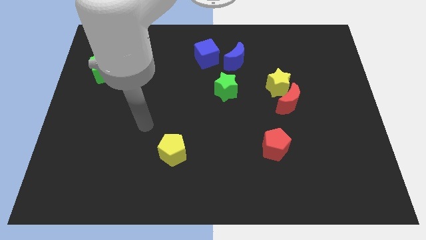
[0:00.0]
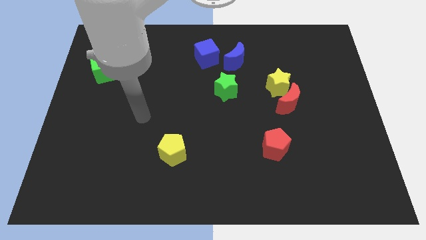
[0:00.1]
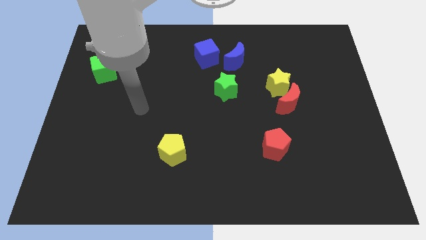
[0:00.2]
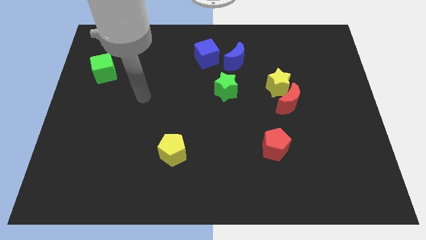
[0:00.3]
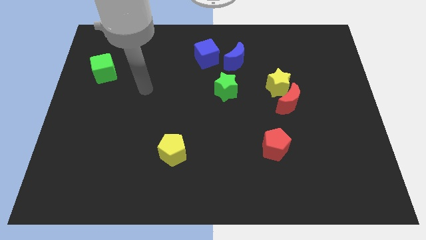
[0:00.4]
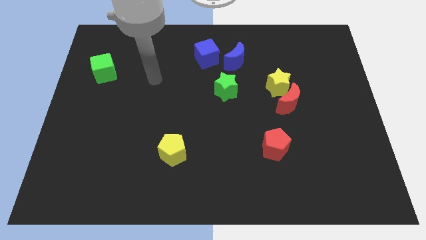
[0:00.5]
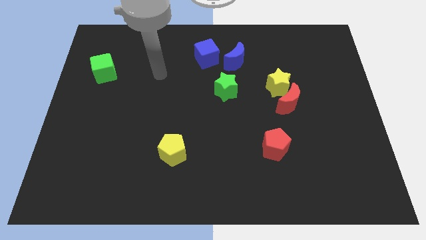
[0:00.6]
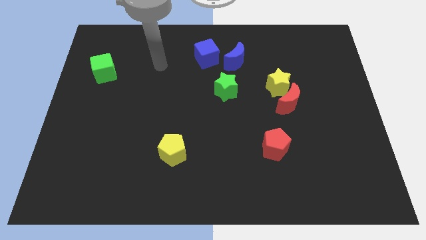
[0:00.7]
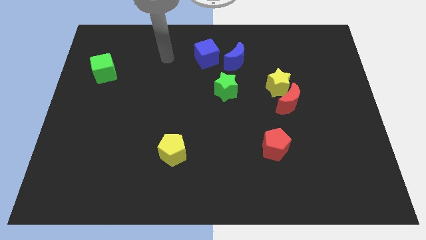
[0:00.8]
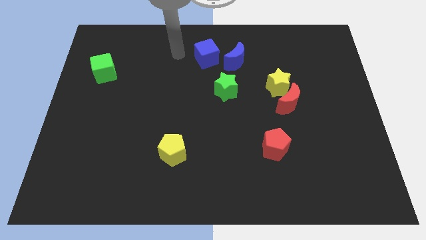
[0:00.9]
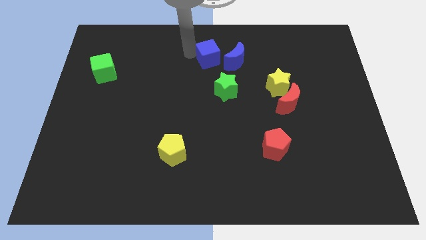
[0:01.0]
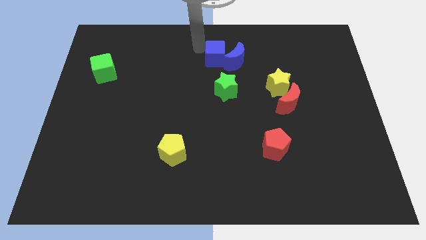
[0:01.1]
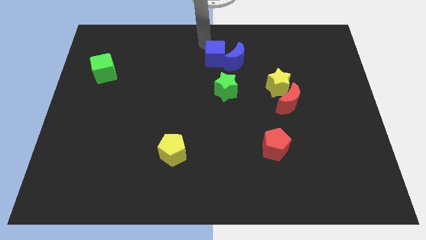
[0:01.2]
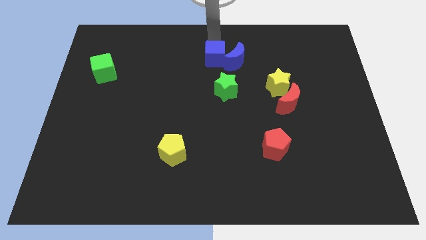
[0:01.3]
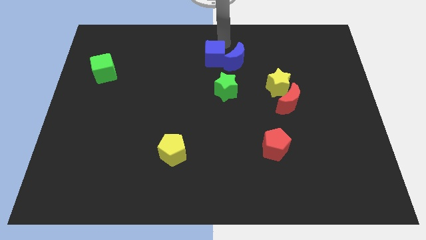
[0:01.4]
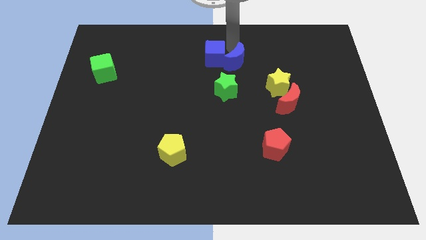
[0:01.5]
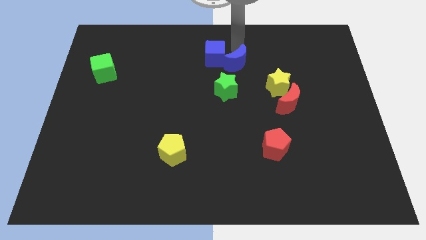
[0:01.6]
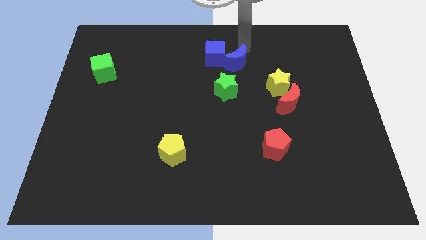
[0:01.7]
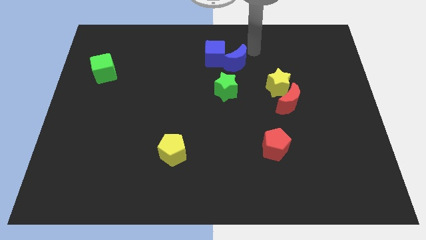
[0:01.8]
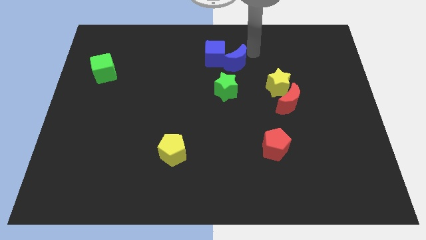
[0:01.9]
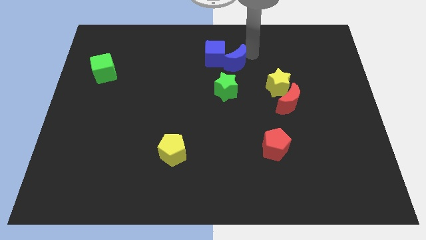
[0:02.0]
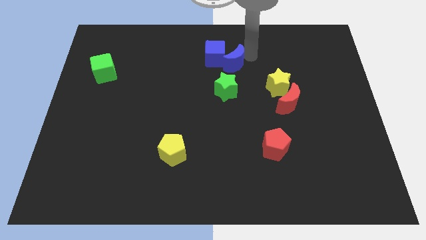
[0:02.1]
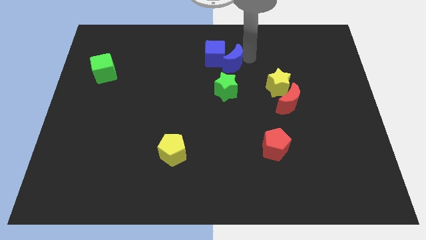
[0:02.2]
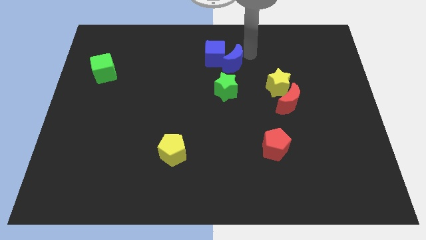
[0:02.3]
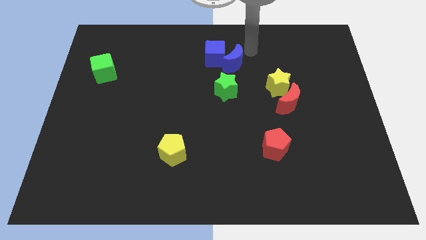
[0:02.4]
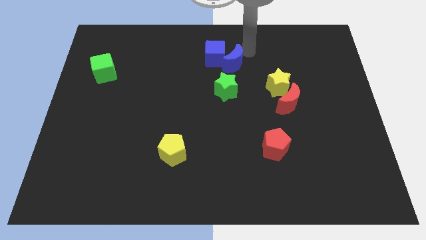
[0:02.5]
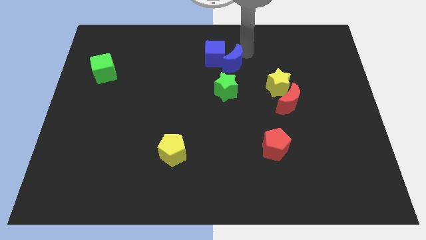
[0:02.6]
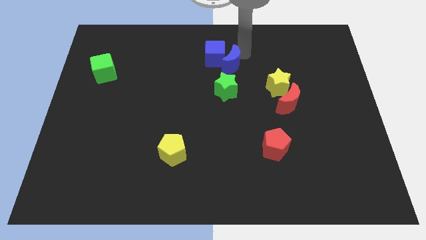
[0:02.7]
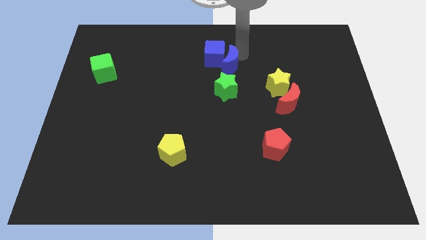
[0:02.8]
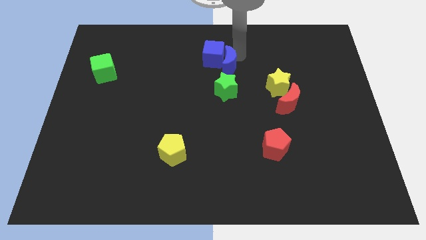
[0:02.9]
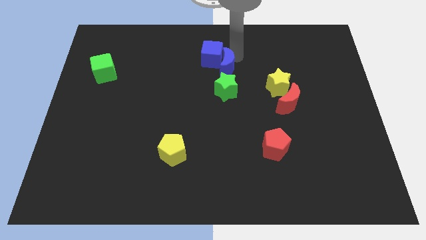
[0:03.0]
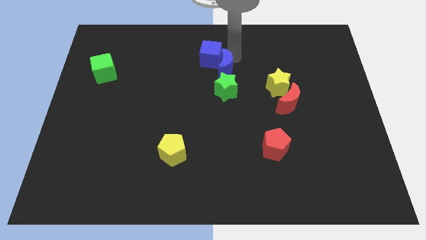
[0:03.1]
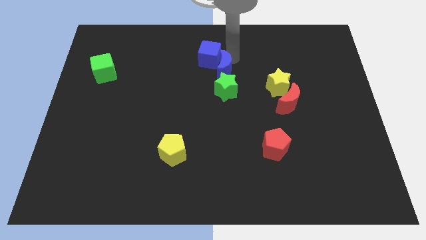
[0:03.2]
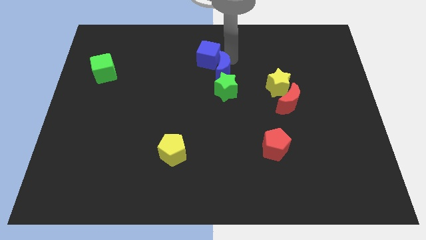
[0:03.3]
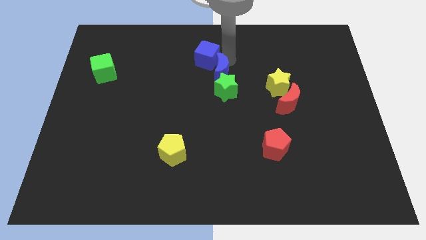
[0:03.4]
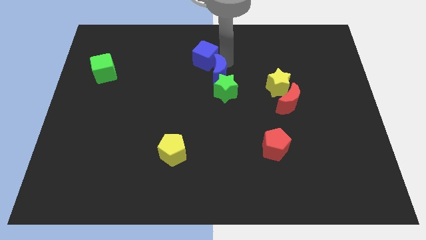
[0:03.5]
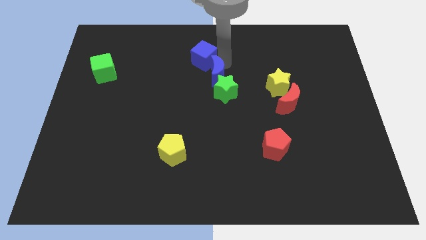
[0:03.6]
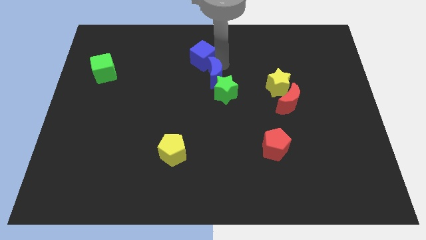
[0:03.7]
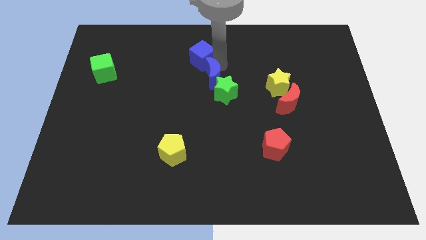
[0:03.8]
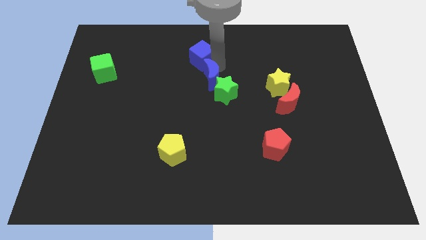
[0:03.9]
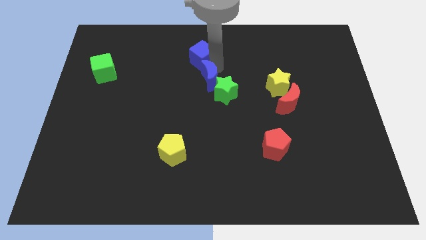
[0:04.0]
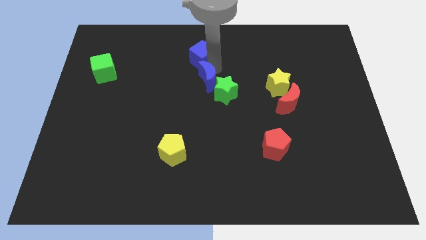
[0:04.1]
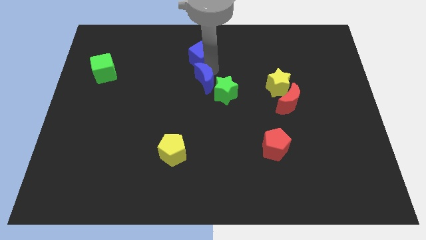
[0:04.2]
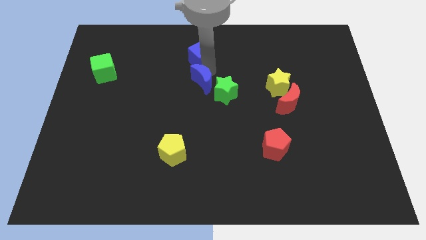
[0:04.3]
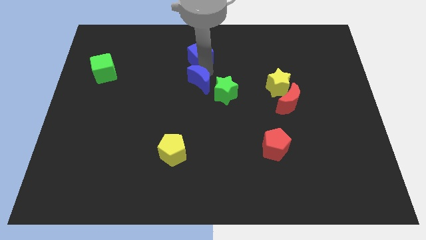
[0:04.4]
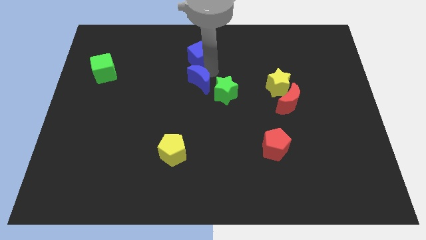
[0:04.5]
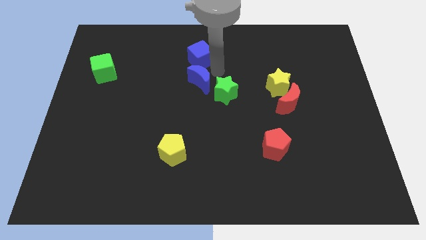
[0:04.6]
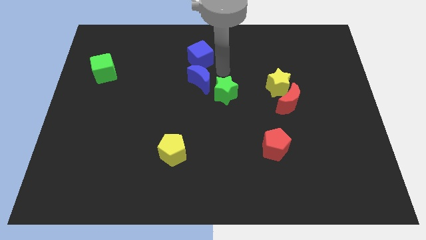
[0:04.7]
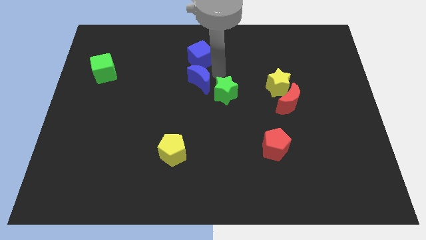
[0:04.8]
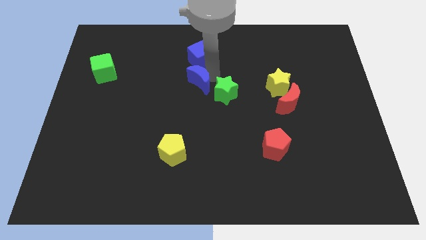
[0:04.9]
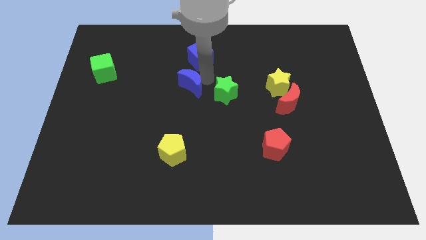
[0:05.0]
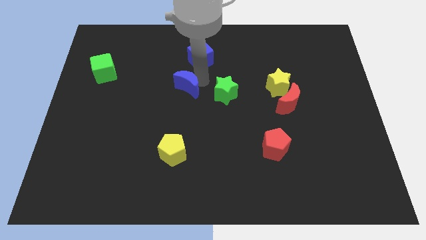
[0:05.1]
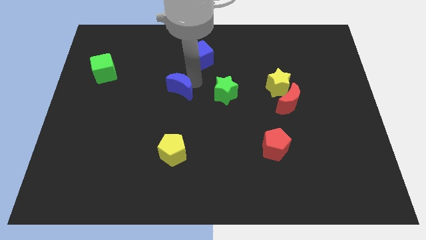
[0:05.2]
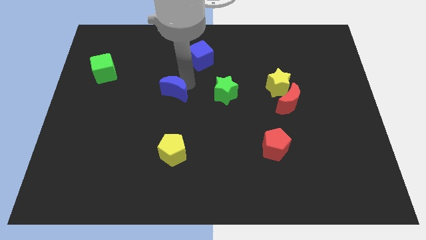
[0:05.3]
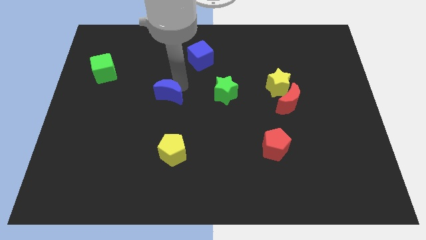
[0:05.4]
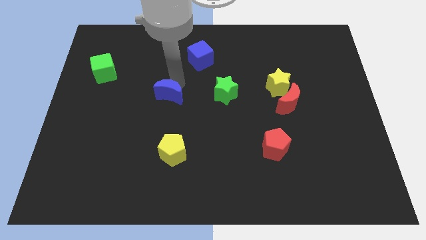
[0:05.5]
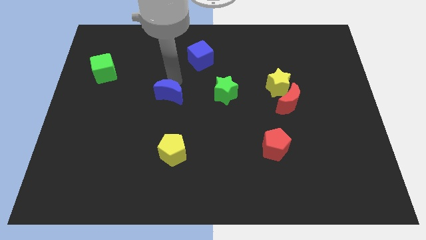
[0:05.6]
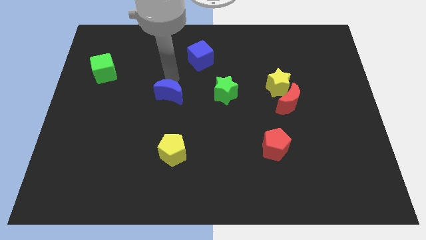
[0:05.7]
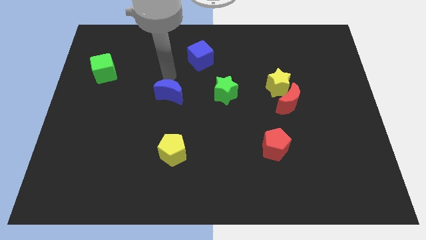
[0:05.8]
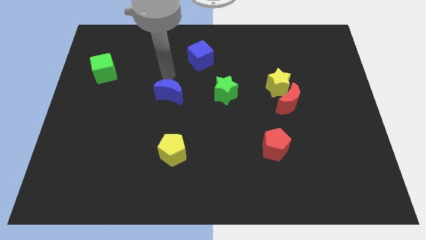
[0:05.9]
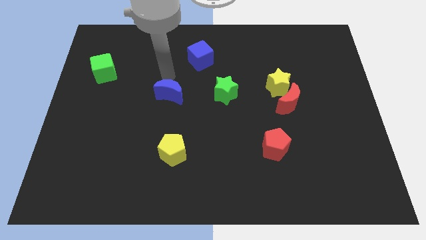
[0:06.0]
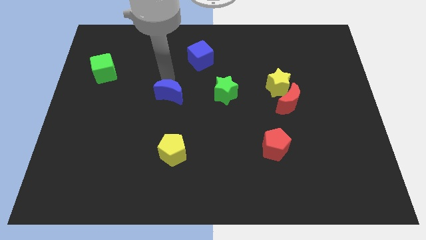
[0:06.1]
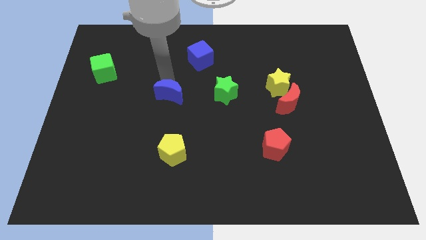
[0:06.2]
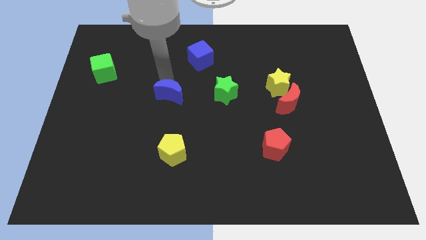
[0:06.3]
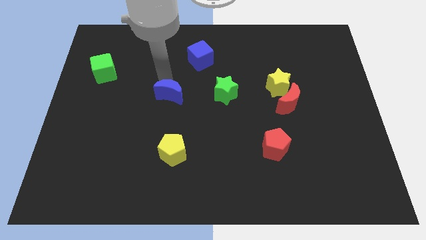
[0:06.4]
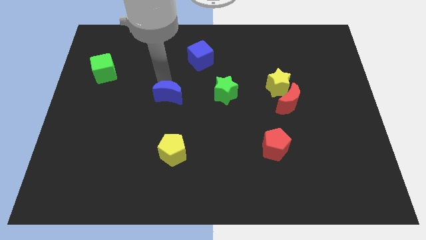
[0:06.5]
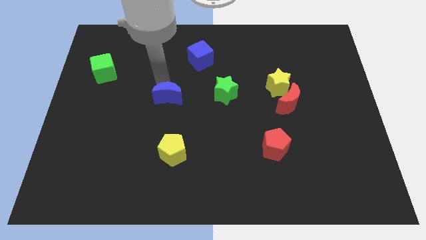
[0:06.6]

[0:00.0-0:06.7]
push the blue moon down and then to the left

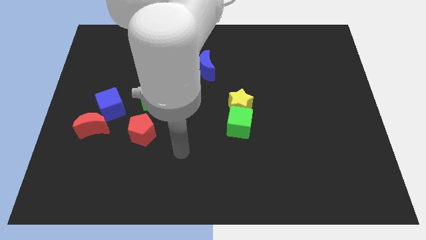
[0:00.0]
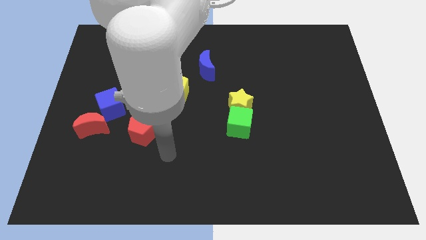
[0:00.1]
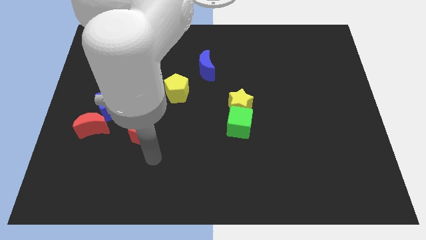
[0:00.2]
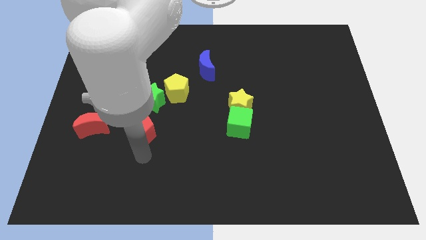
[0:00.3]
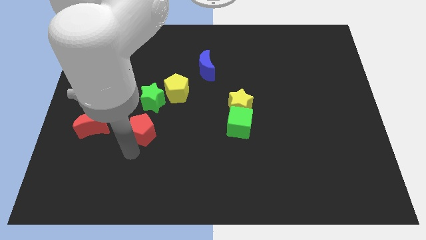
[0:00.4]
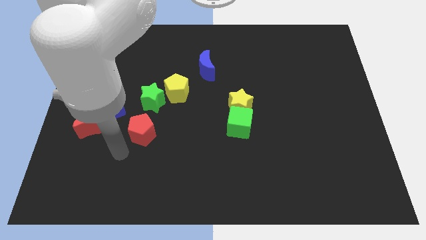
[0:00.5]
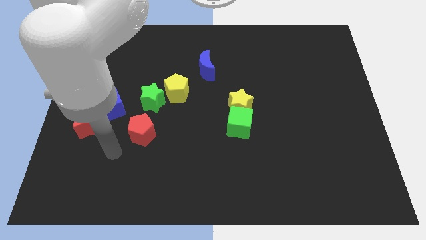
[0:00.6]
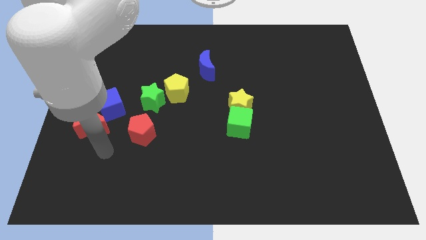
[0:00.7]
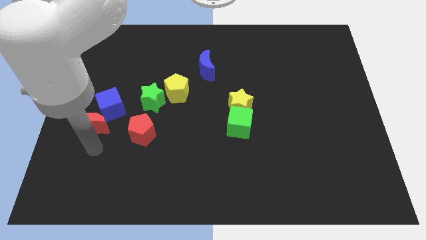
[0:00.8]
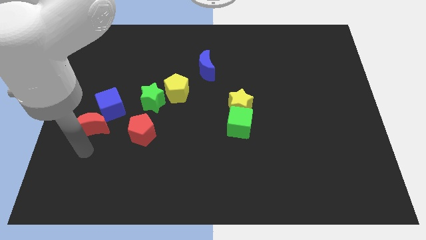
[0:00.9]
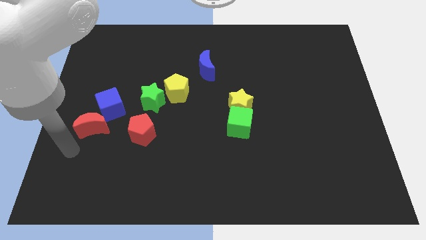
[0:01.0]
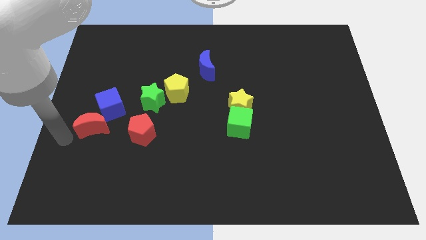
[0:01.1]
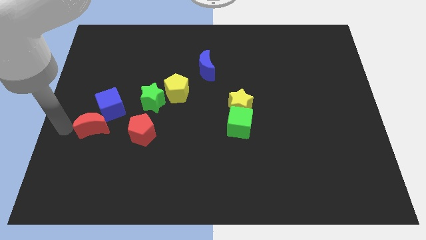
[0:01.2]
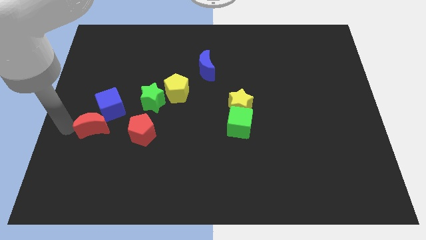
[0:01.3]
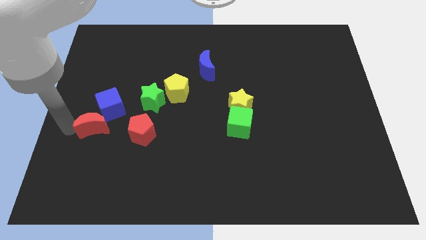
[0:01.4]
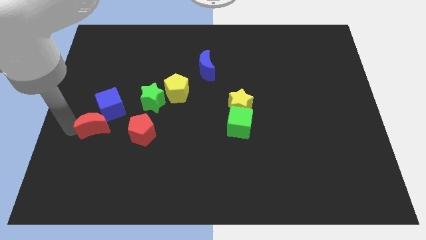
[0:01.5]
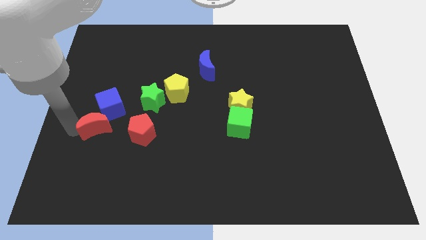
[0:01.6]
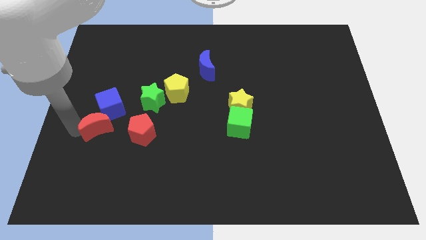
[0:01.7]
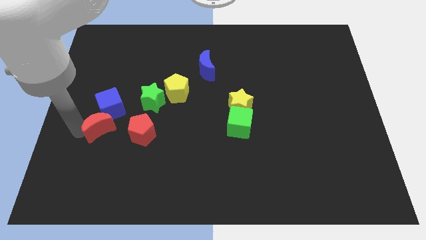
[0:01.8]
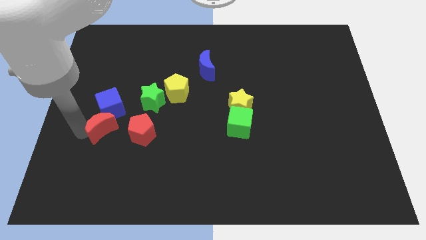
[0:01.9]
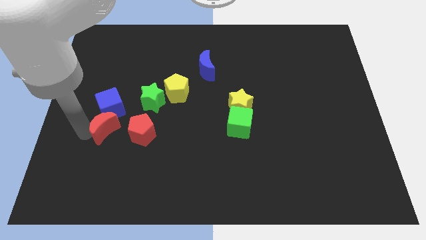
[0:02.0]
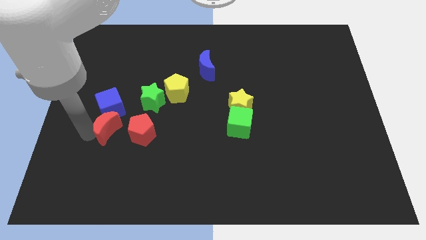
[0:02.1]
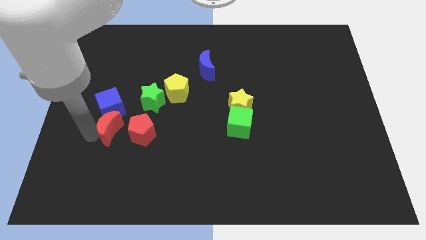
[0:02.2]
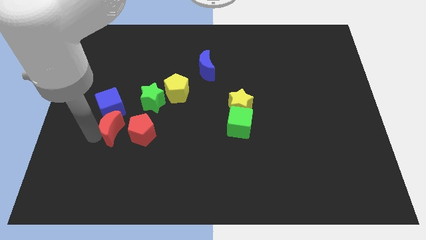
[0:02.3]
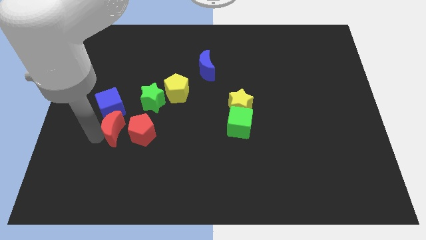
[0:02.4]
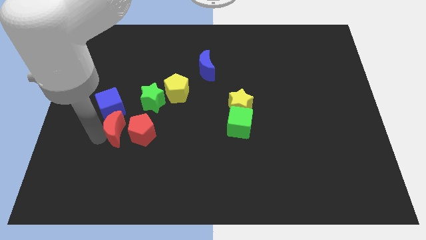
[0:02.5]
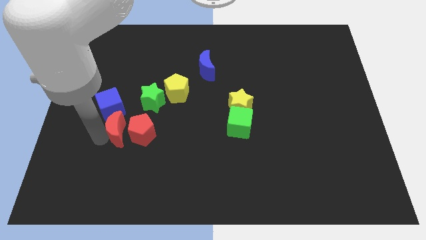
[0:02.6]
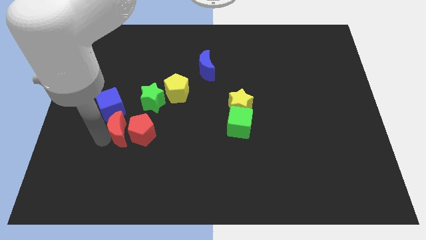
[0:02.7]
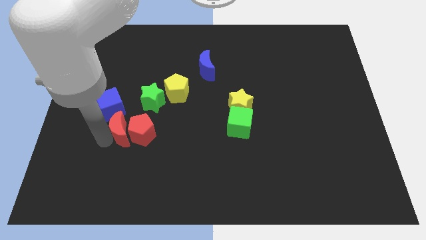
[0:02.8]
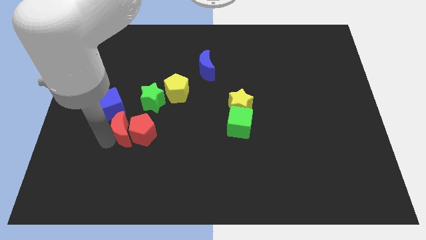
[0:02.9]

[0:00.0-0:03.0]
move the red moon to the right a little
